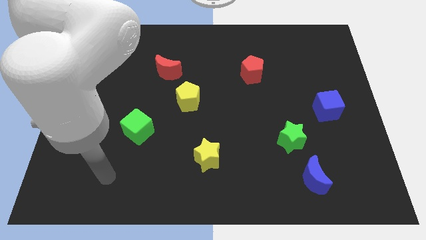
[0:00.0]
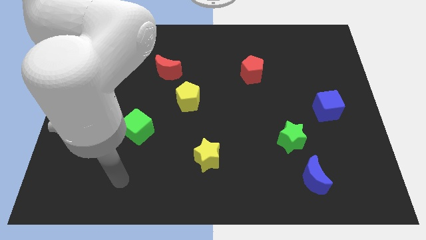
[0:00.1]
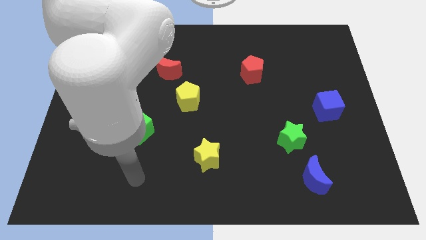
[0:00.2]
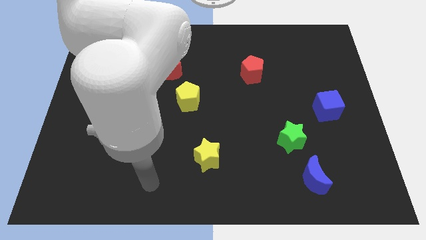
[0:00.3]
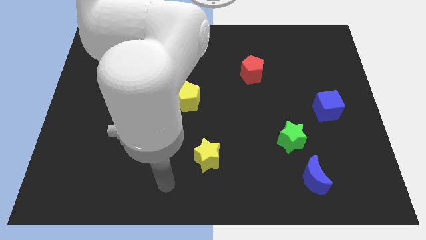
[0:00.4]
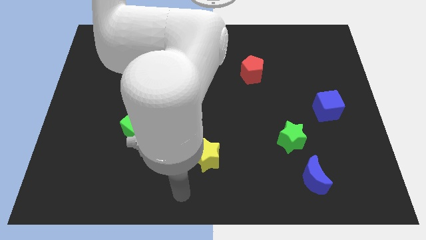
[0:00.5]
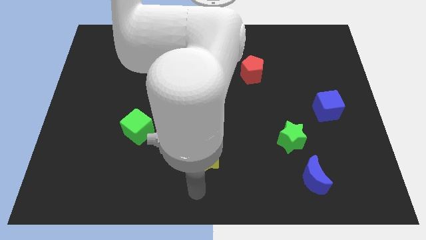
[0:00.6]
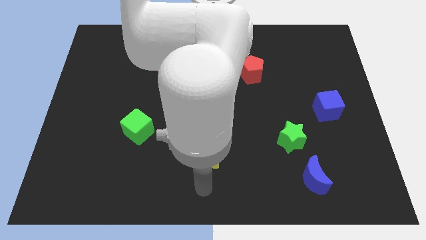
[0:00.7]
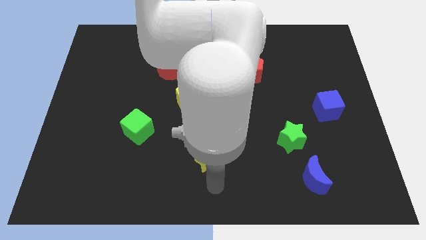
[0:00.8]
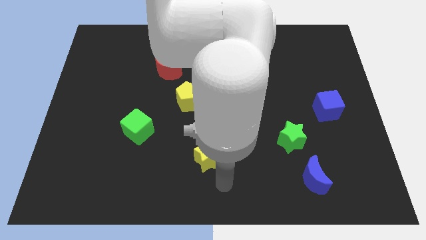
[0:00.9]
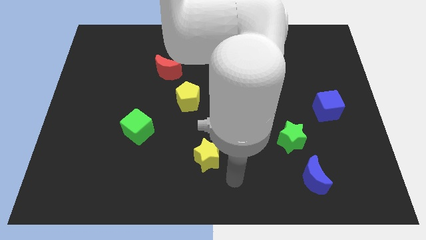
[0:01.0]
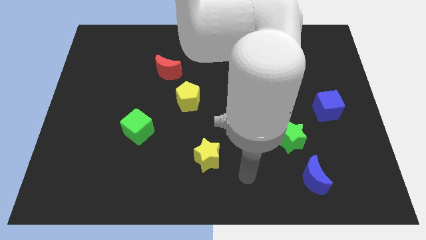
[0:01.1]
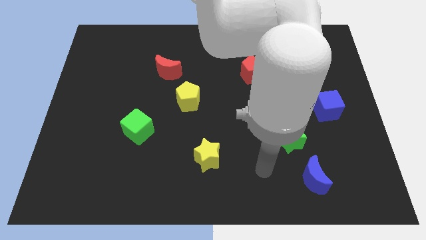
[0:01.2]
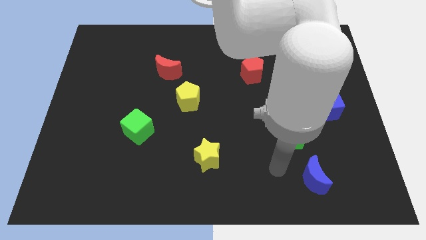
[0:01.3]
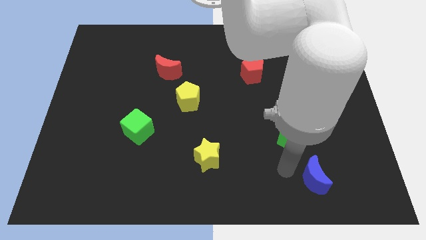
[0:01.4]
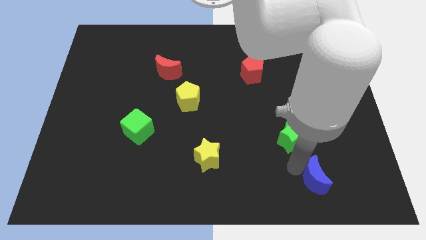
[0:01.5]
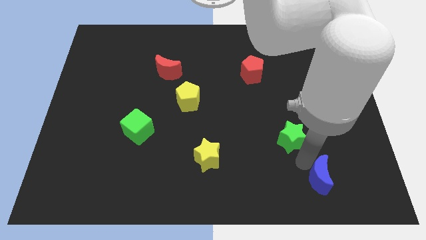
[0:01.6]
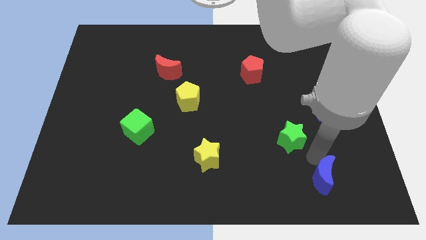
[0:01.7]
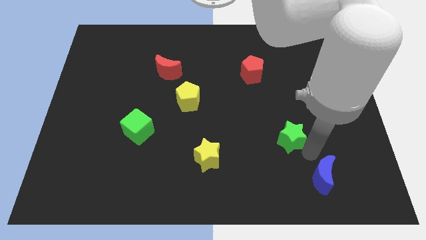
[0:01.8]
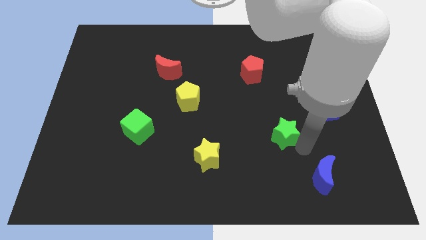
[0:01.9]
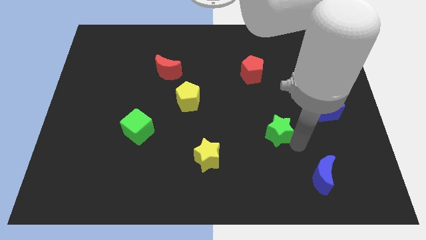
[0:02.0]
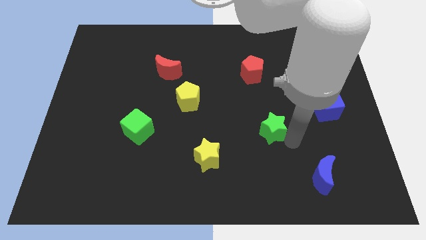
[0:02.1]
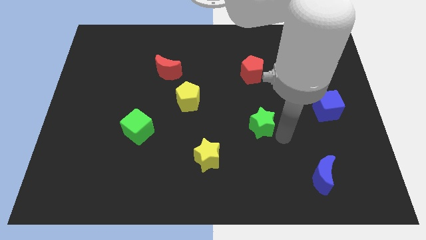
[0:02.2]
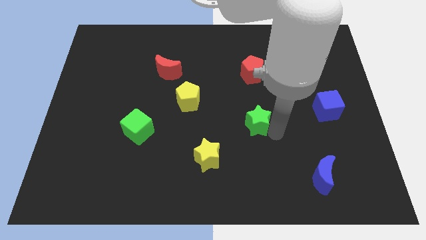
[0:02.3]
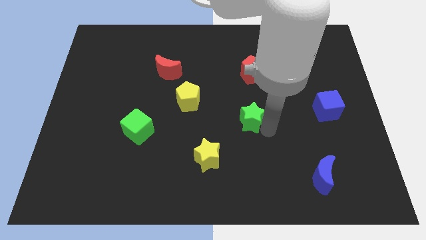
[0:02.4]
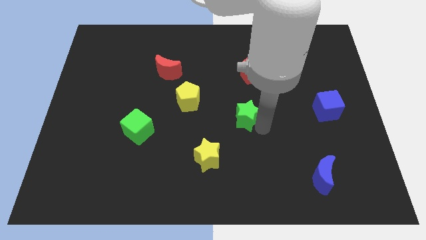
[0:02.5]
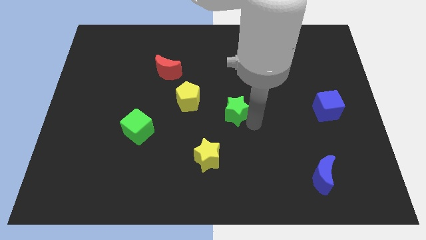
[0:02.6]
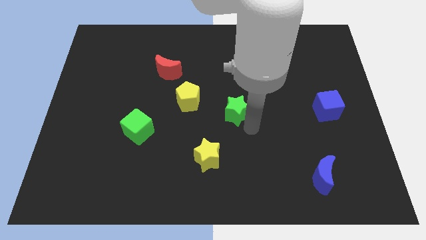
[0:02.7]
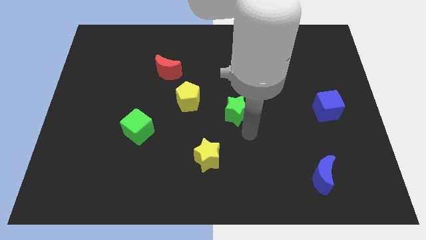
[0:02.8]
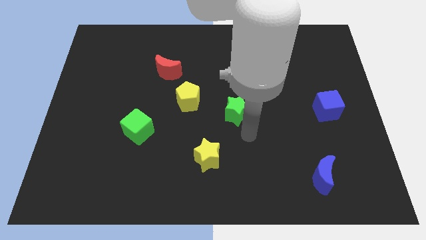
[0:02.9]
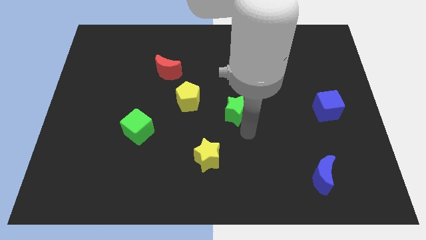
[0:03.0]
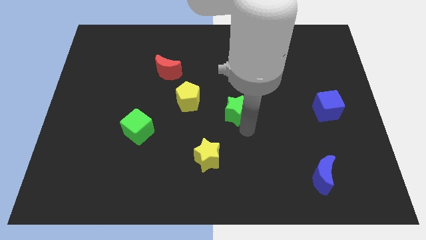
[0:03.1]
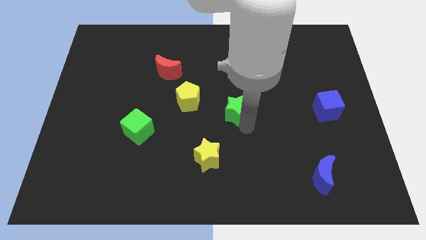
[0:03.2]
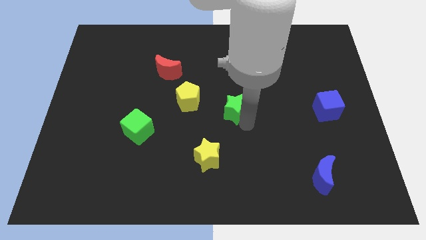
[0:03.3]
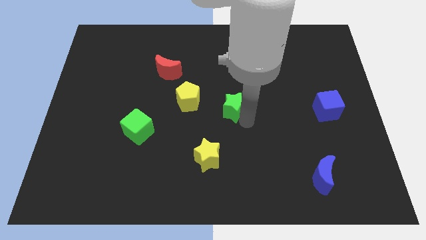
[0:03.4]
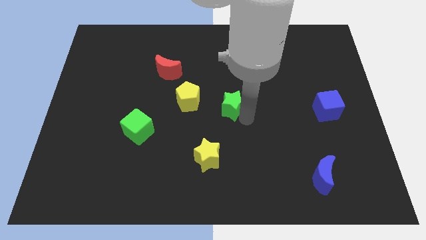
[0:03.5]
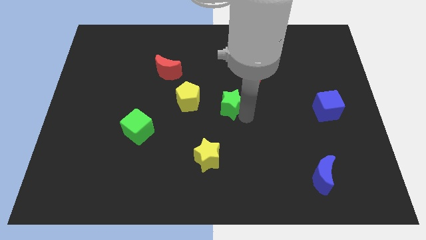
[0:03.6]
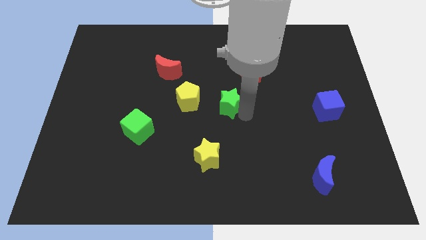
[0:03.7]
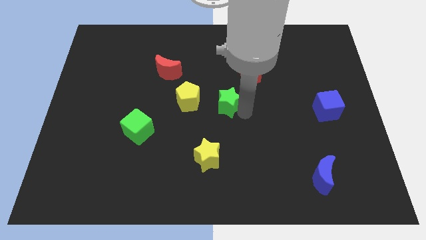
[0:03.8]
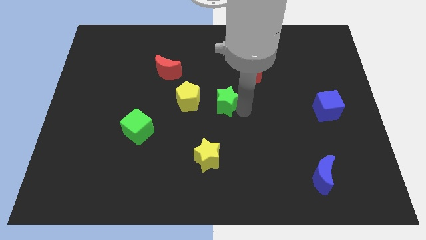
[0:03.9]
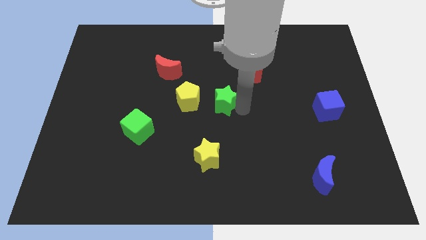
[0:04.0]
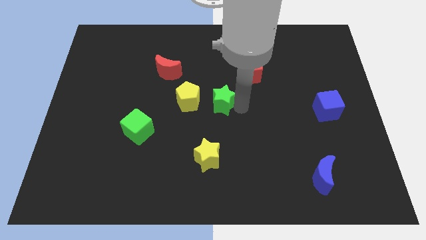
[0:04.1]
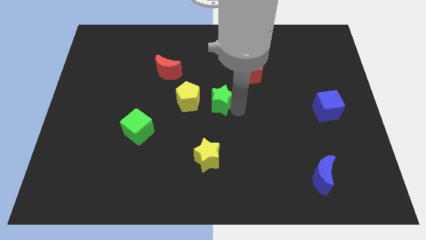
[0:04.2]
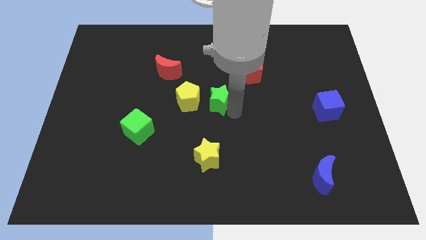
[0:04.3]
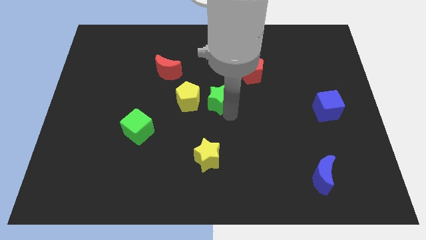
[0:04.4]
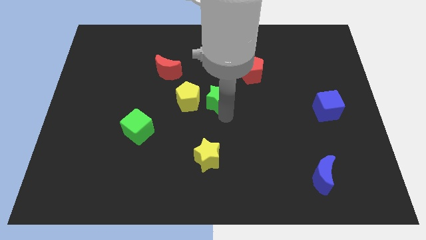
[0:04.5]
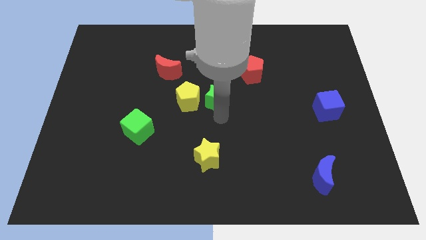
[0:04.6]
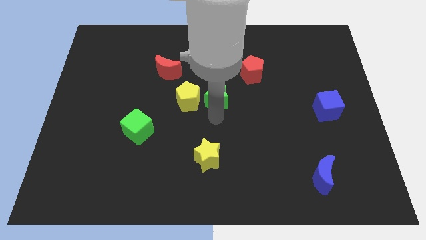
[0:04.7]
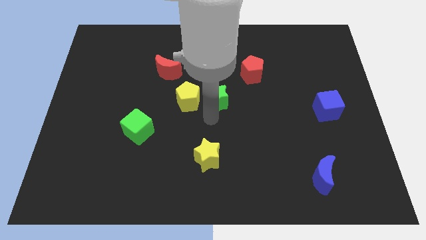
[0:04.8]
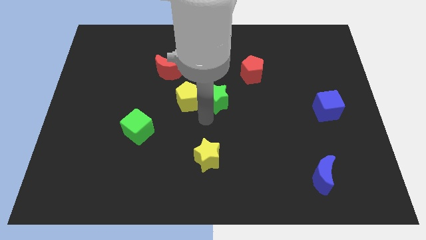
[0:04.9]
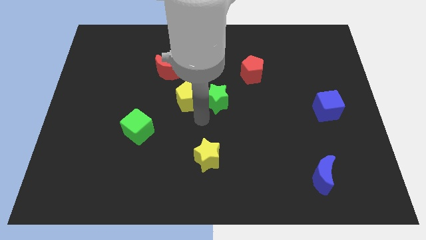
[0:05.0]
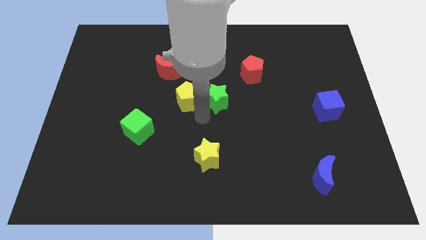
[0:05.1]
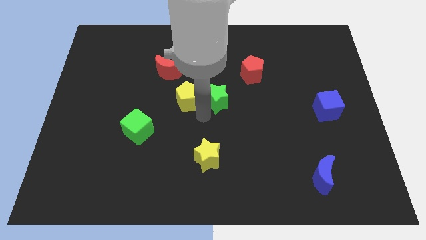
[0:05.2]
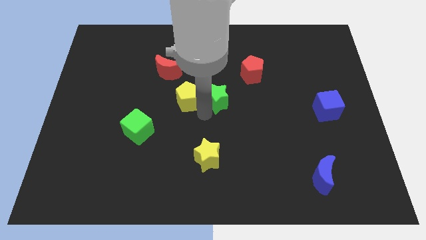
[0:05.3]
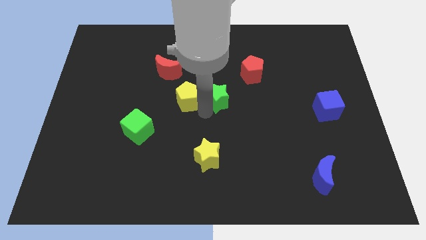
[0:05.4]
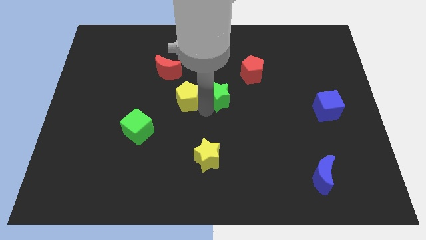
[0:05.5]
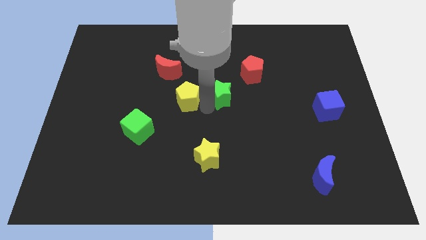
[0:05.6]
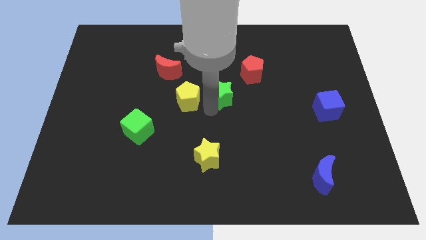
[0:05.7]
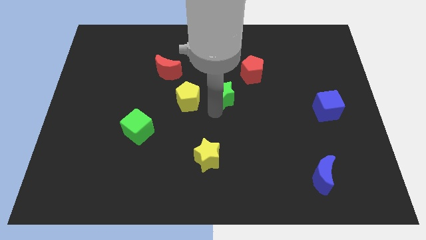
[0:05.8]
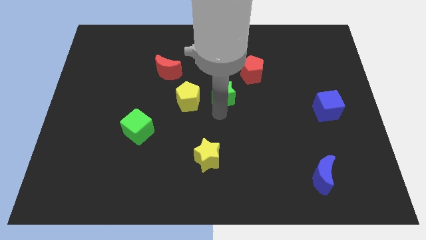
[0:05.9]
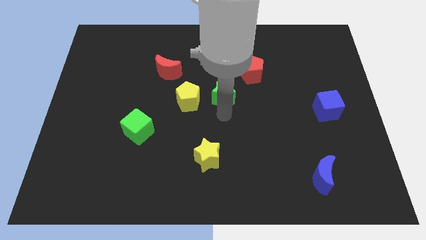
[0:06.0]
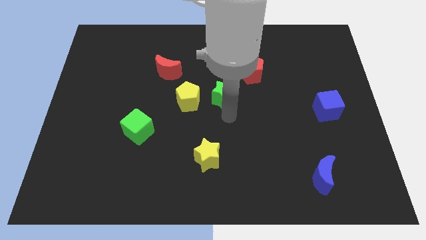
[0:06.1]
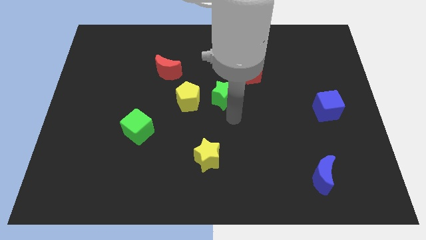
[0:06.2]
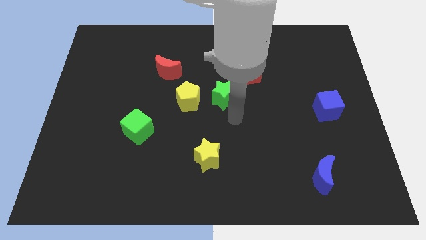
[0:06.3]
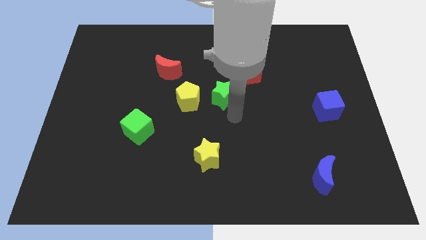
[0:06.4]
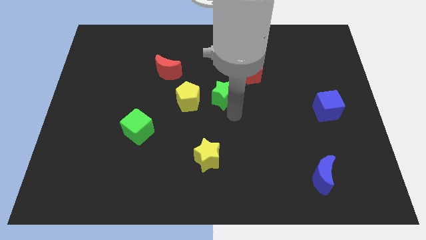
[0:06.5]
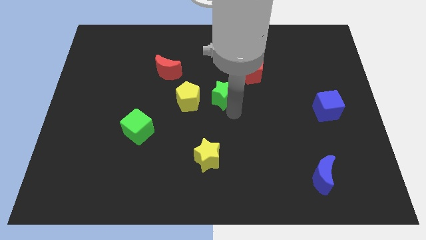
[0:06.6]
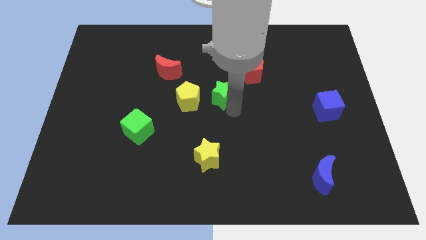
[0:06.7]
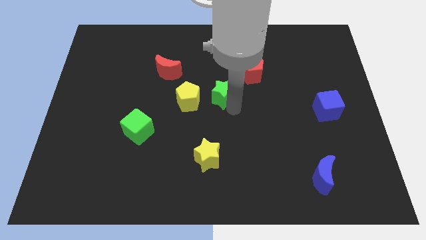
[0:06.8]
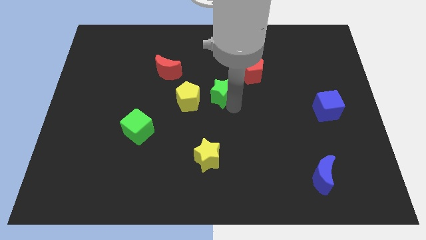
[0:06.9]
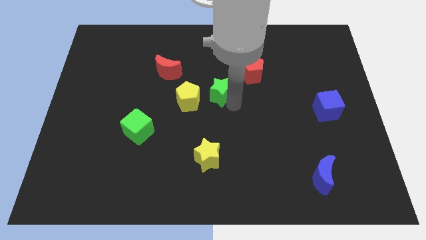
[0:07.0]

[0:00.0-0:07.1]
push the green star up and to the left

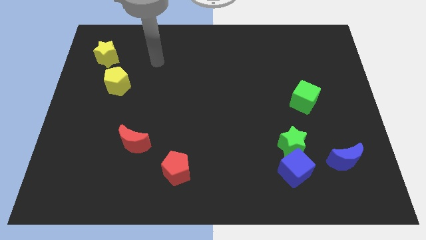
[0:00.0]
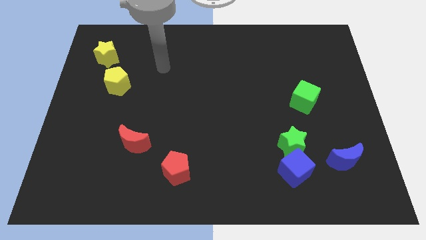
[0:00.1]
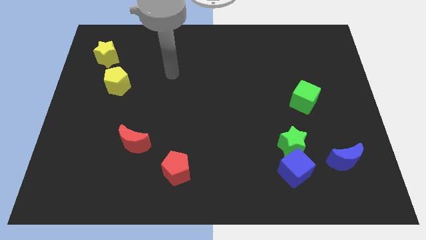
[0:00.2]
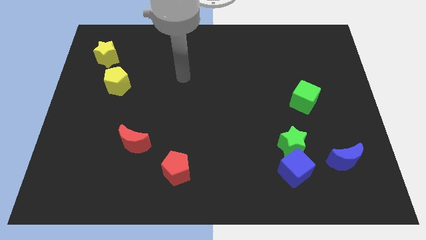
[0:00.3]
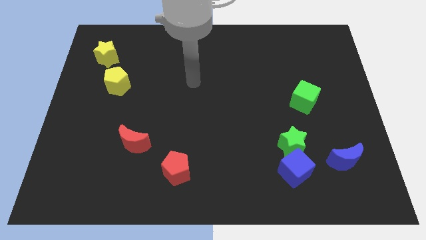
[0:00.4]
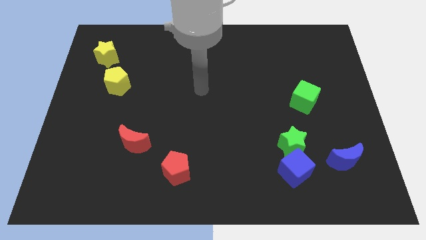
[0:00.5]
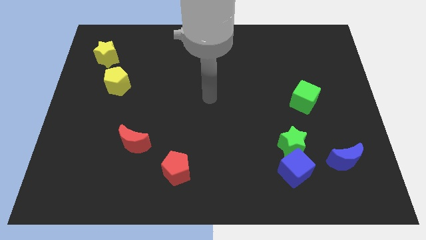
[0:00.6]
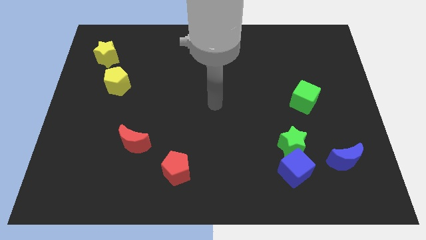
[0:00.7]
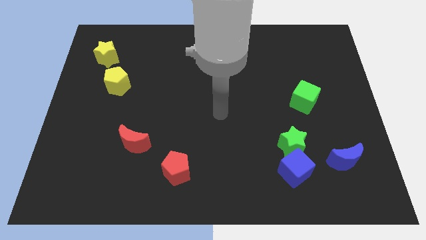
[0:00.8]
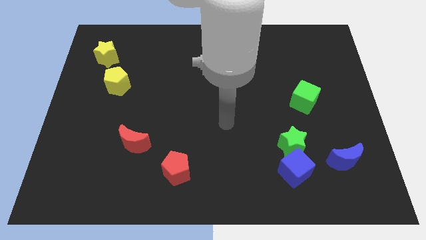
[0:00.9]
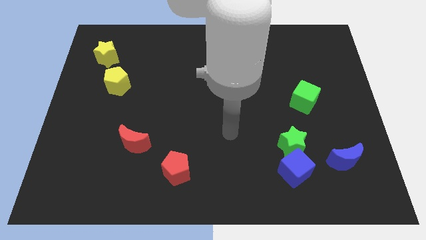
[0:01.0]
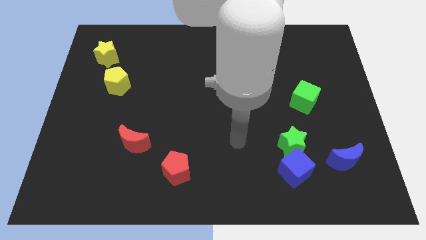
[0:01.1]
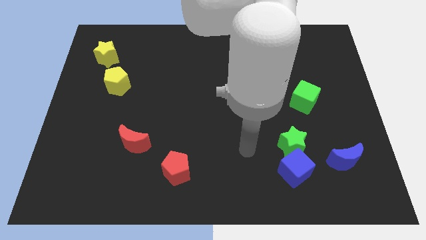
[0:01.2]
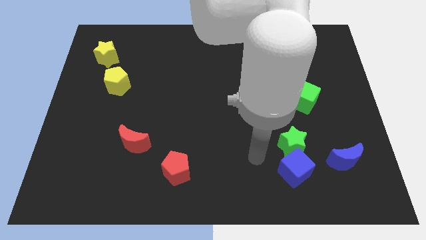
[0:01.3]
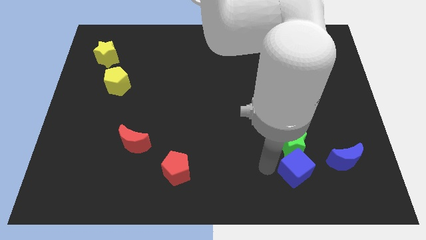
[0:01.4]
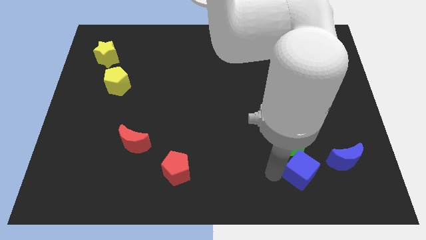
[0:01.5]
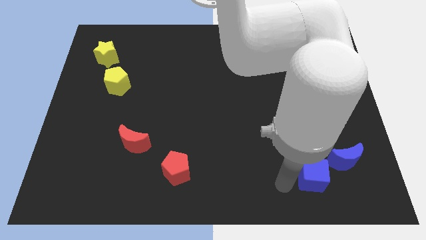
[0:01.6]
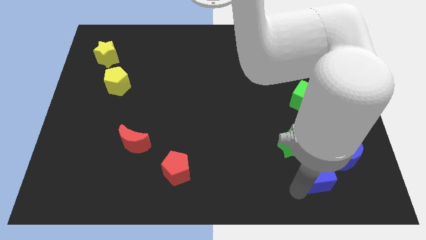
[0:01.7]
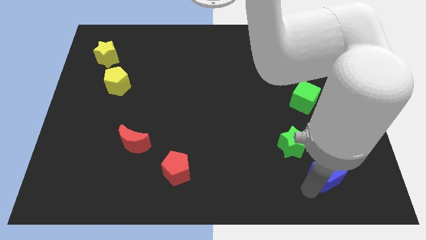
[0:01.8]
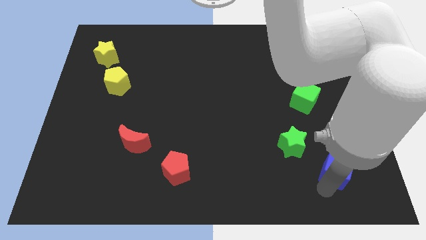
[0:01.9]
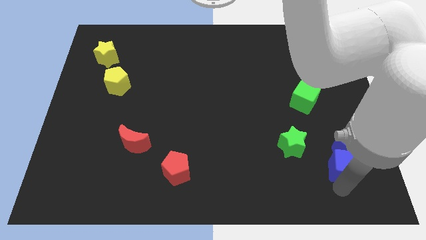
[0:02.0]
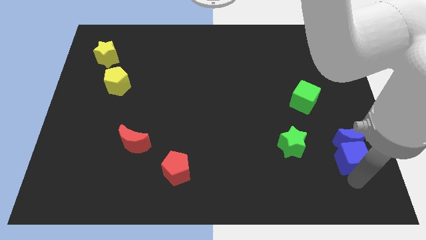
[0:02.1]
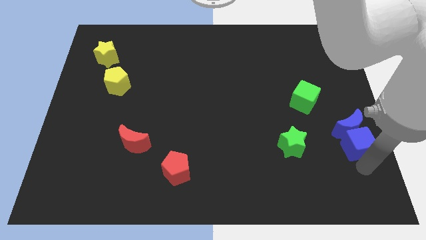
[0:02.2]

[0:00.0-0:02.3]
slide the blue moon a little upwards
